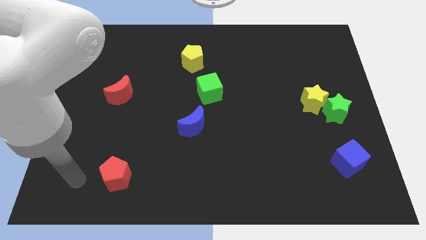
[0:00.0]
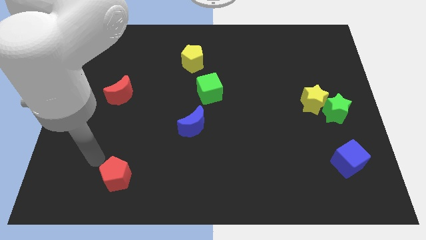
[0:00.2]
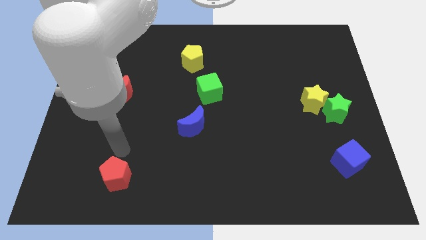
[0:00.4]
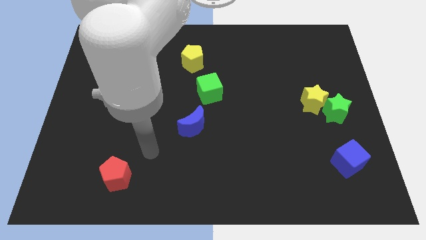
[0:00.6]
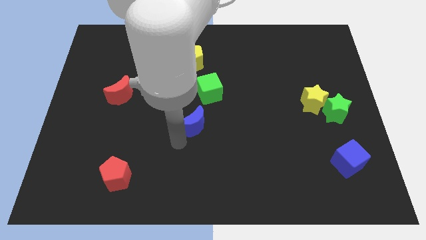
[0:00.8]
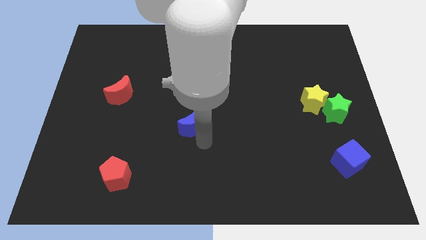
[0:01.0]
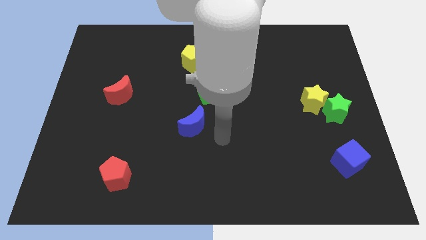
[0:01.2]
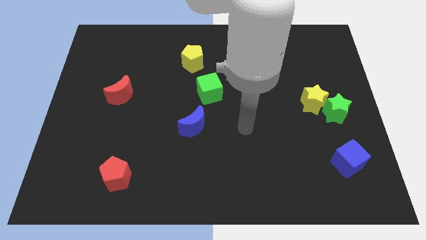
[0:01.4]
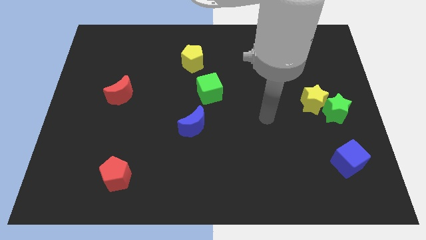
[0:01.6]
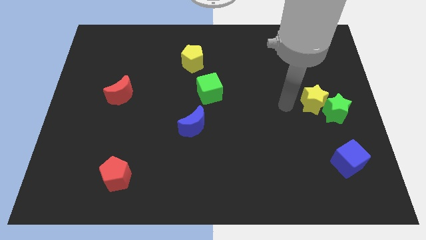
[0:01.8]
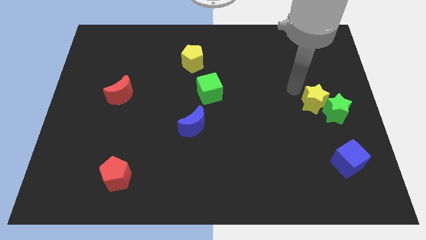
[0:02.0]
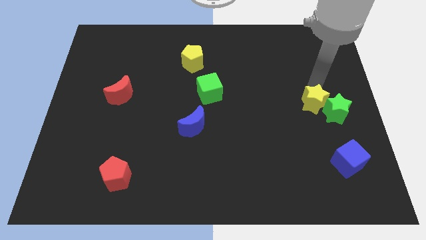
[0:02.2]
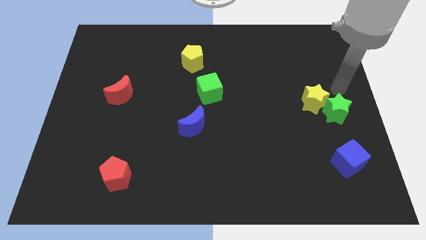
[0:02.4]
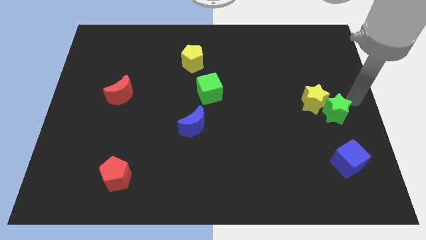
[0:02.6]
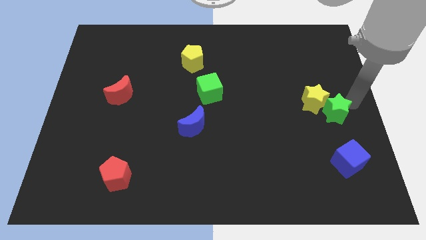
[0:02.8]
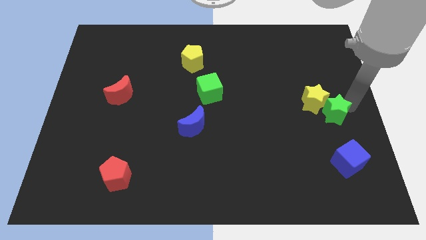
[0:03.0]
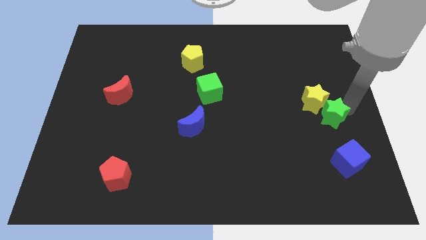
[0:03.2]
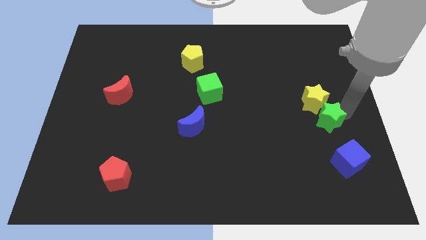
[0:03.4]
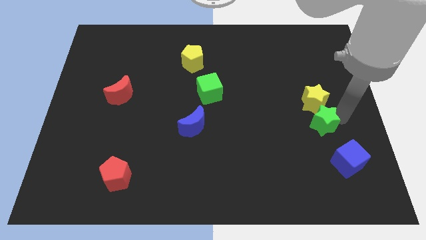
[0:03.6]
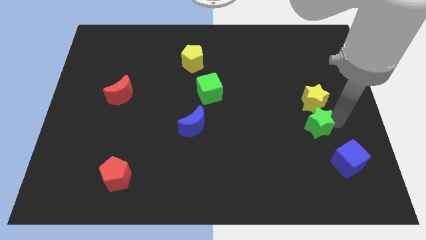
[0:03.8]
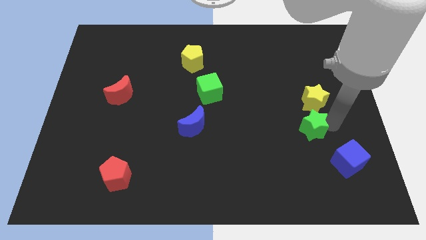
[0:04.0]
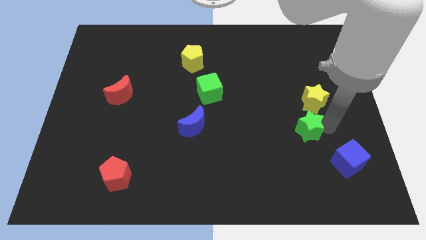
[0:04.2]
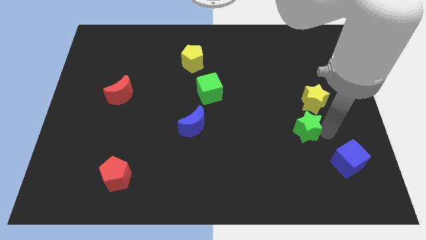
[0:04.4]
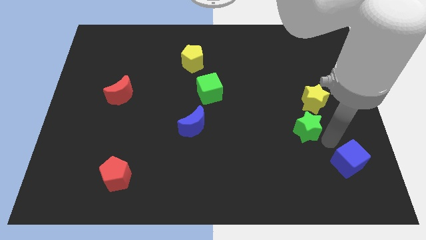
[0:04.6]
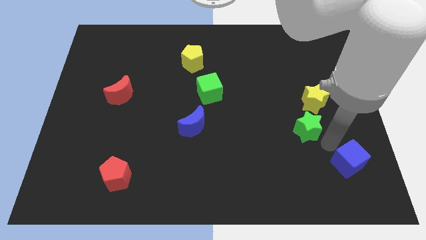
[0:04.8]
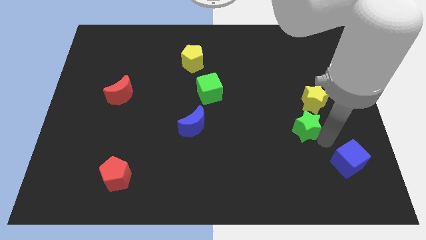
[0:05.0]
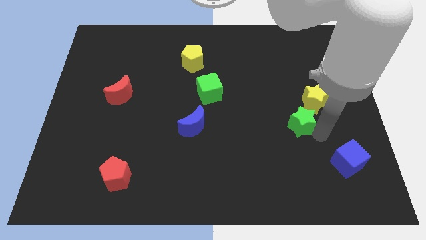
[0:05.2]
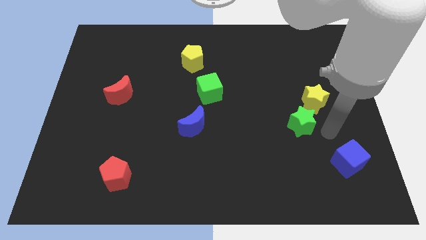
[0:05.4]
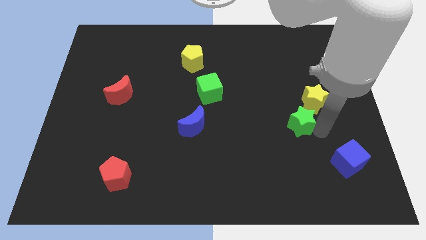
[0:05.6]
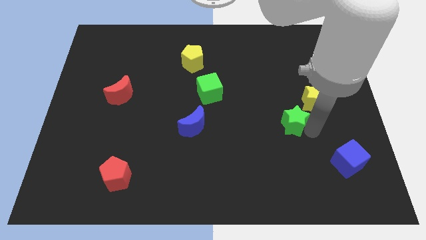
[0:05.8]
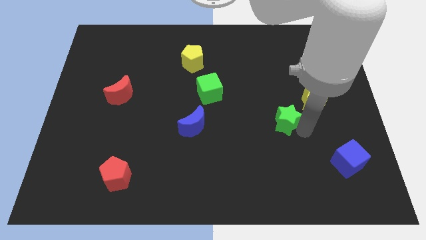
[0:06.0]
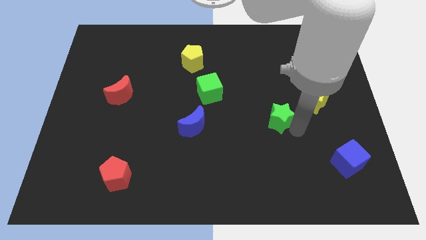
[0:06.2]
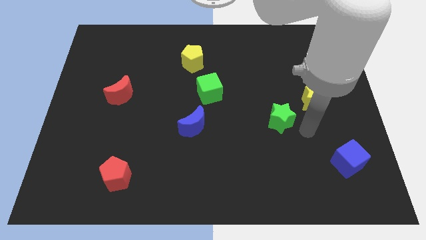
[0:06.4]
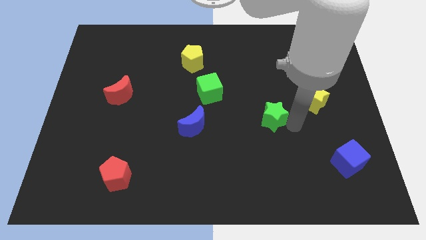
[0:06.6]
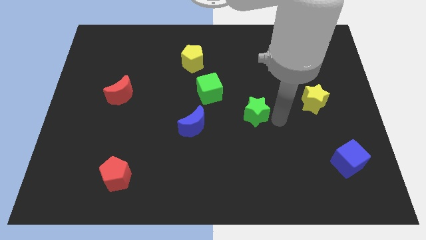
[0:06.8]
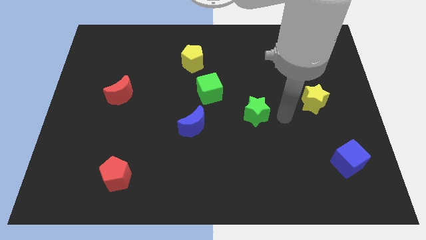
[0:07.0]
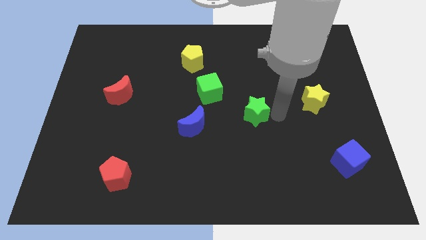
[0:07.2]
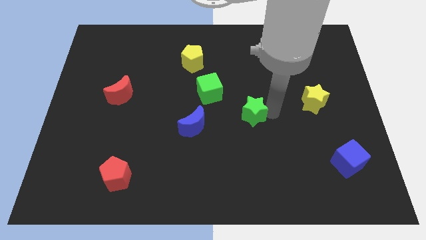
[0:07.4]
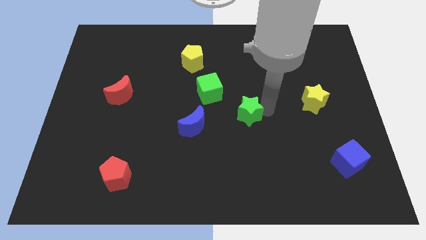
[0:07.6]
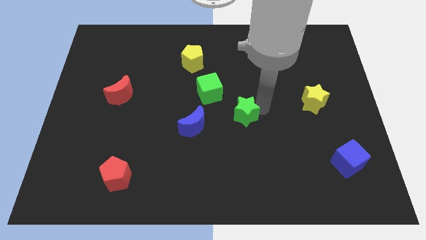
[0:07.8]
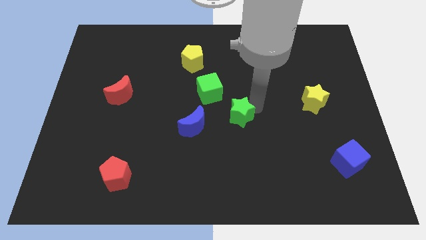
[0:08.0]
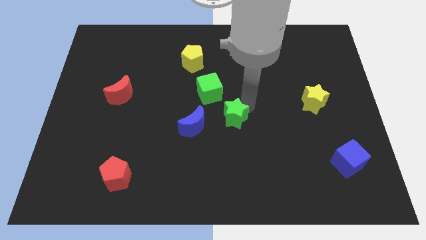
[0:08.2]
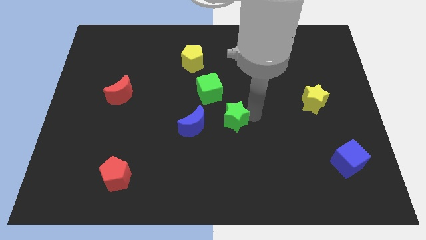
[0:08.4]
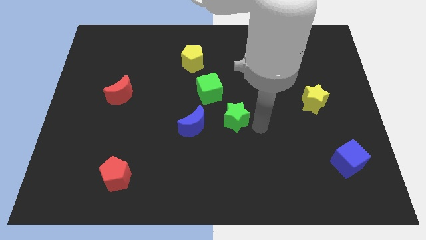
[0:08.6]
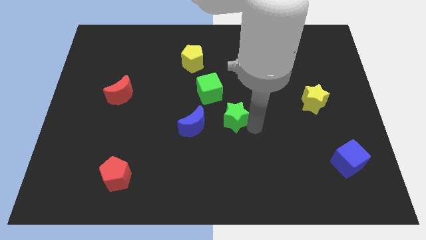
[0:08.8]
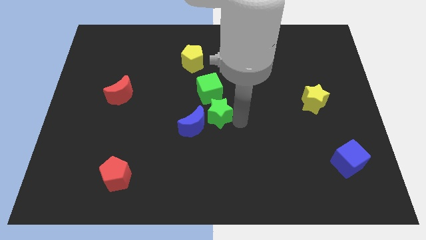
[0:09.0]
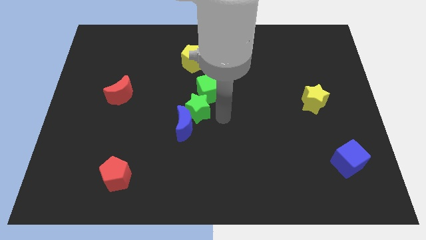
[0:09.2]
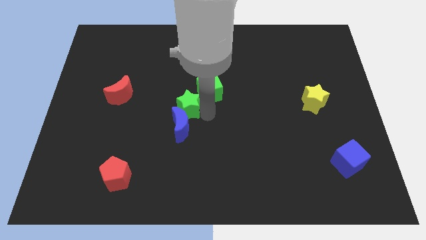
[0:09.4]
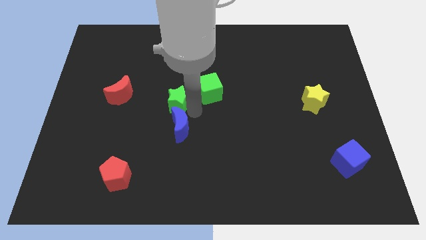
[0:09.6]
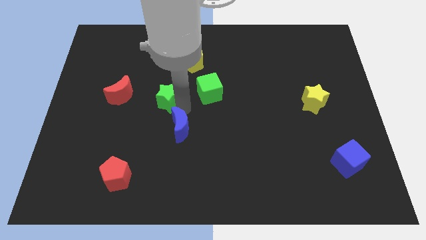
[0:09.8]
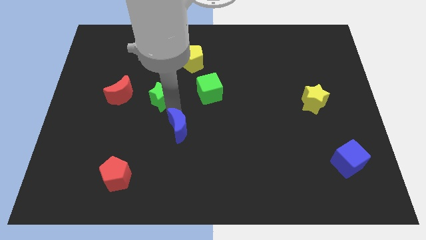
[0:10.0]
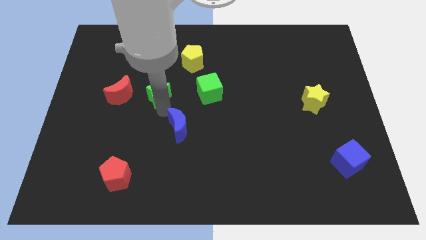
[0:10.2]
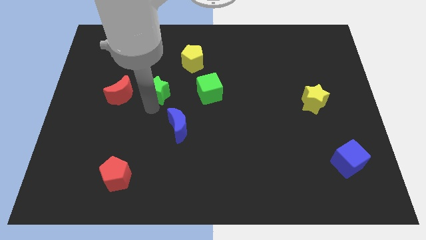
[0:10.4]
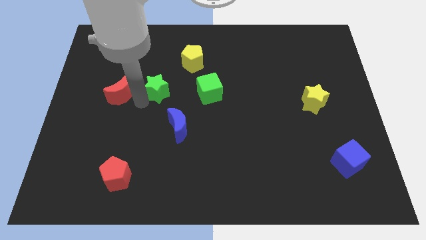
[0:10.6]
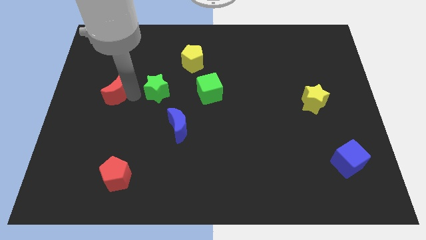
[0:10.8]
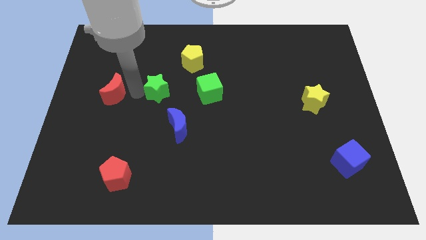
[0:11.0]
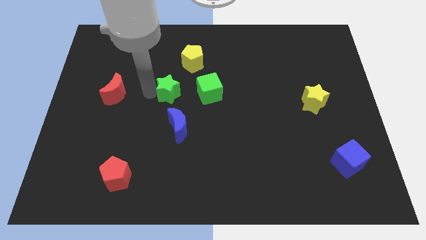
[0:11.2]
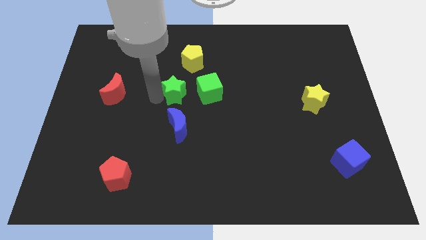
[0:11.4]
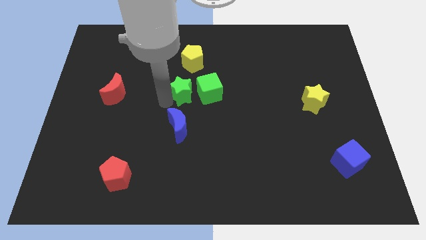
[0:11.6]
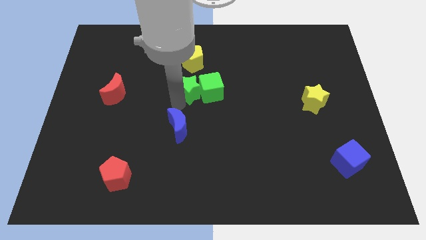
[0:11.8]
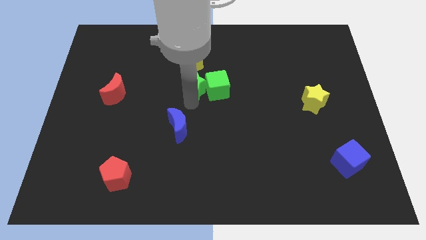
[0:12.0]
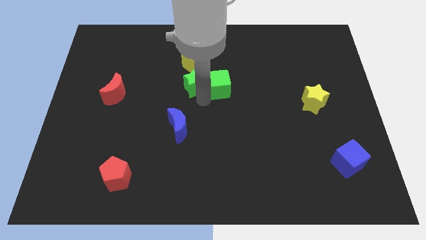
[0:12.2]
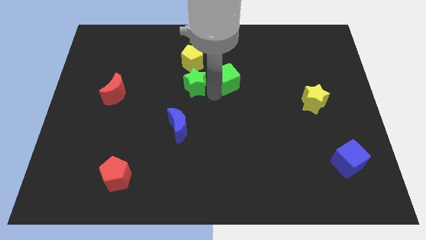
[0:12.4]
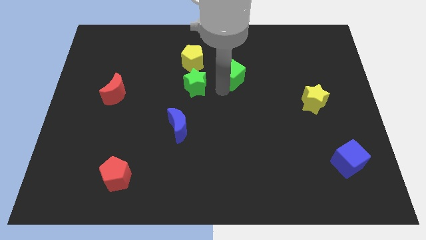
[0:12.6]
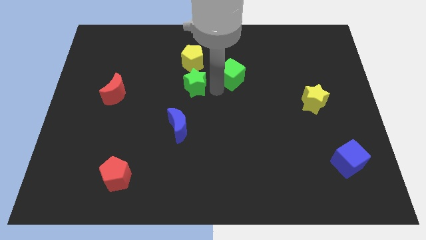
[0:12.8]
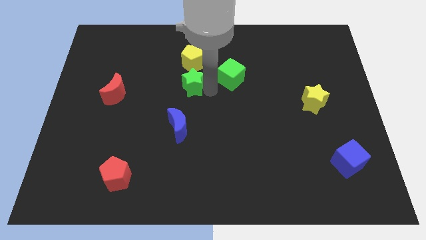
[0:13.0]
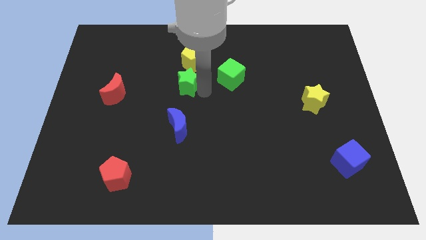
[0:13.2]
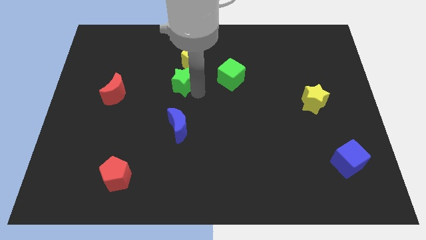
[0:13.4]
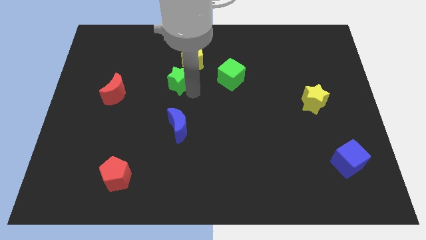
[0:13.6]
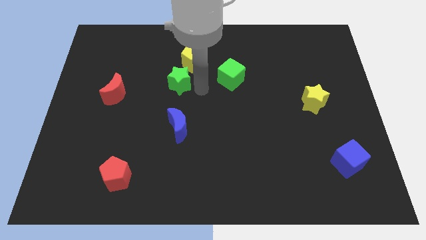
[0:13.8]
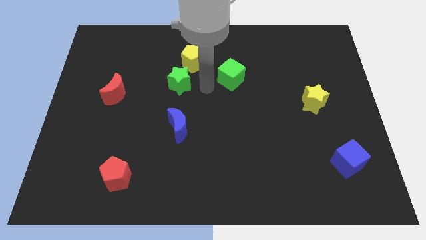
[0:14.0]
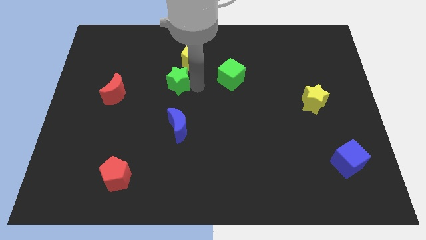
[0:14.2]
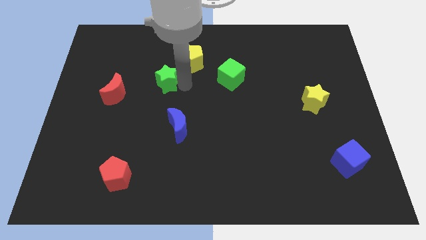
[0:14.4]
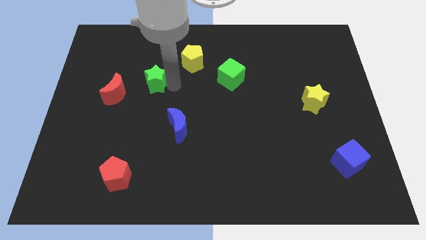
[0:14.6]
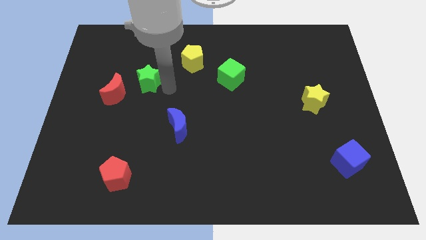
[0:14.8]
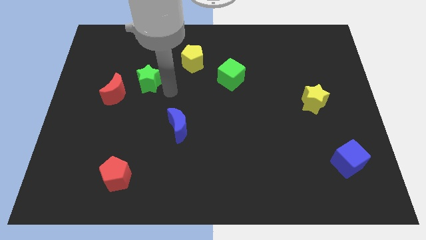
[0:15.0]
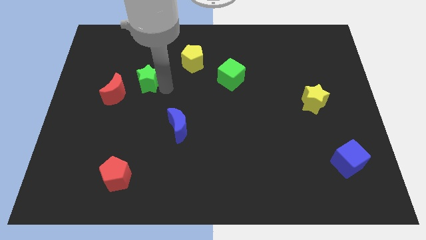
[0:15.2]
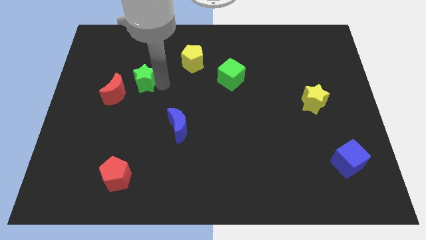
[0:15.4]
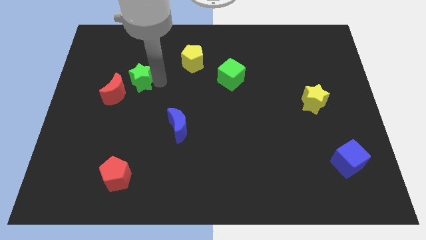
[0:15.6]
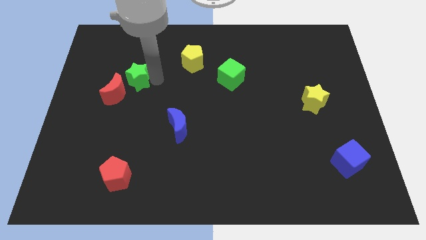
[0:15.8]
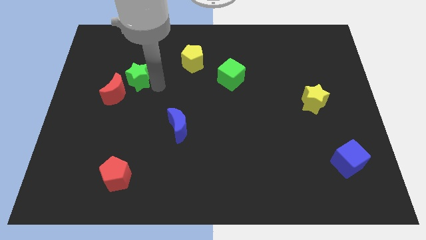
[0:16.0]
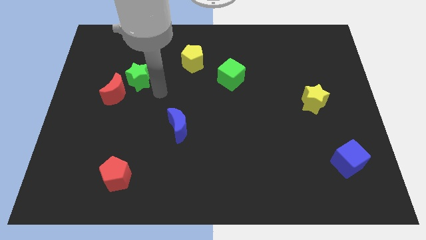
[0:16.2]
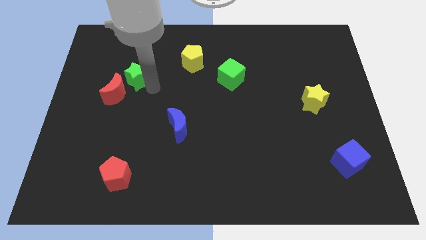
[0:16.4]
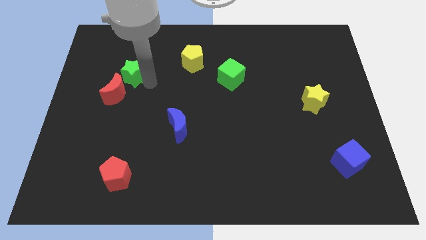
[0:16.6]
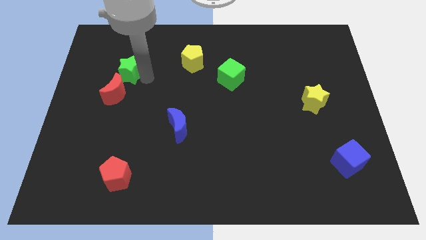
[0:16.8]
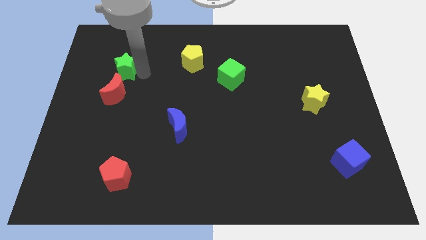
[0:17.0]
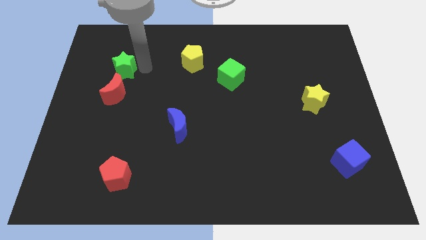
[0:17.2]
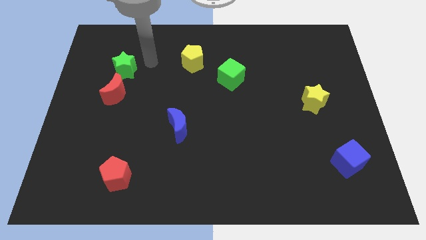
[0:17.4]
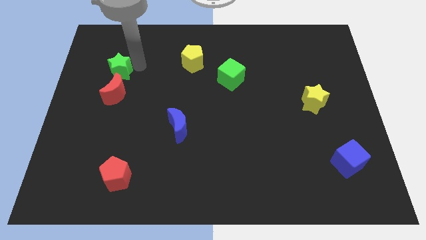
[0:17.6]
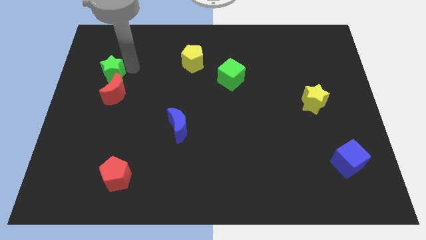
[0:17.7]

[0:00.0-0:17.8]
put the green star to the top left side of the red moon
